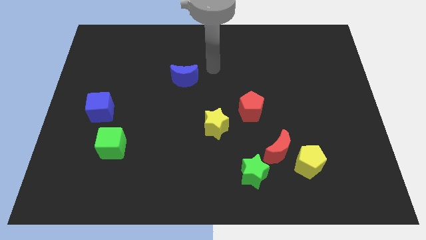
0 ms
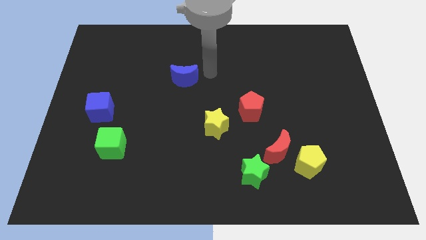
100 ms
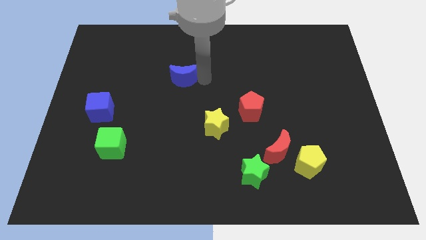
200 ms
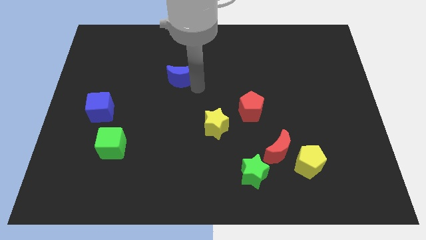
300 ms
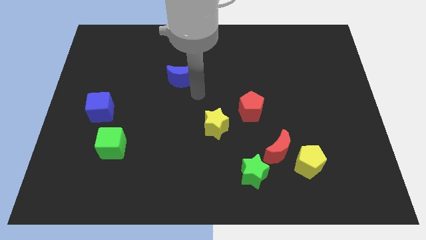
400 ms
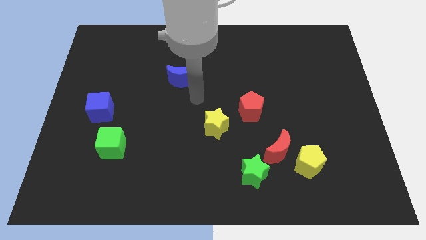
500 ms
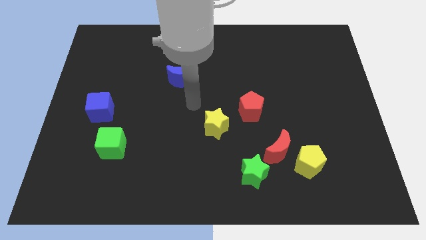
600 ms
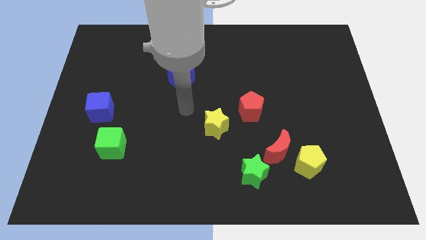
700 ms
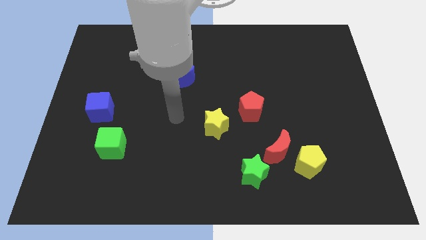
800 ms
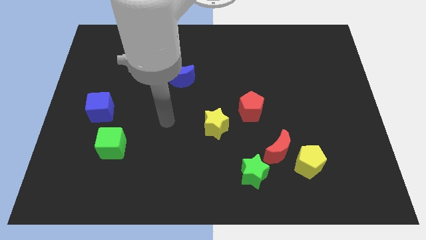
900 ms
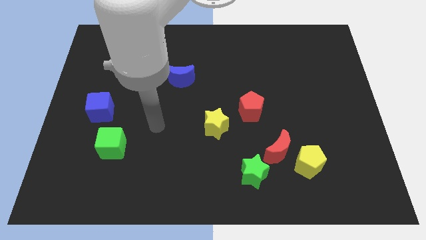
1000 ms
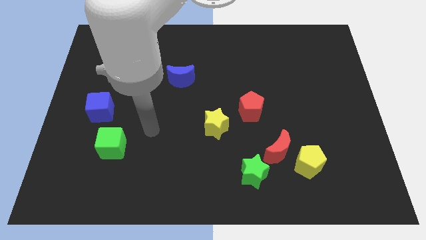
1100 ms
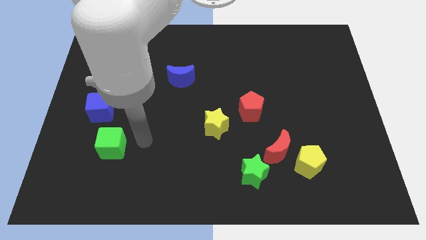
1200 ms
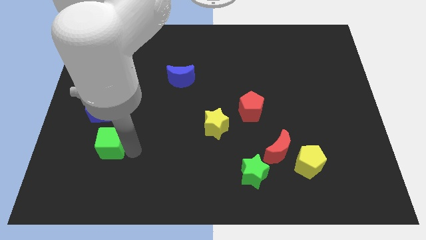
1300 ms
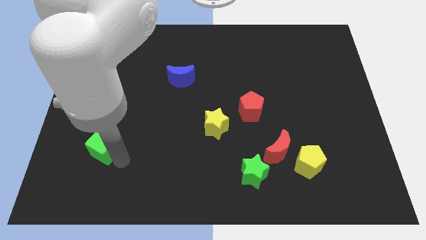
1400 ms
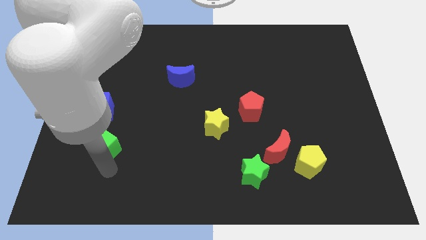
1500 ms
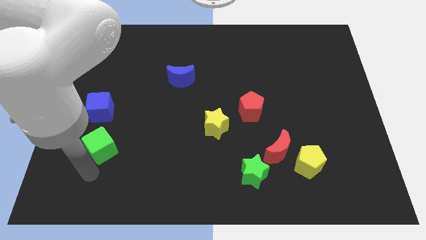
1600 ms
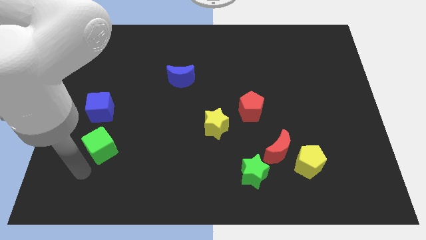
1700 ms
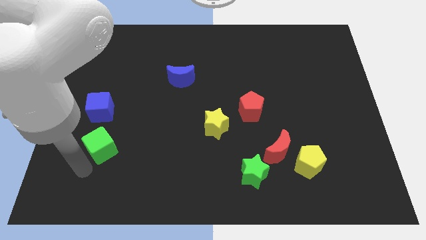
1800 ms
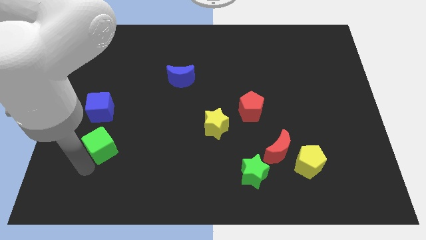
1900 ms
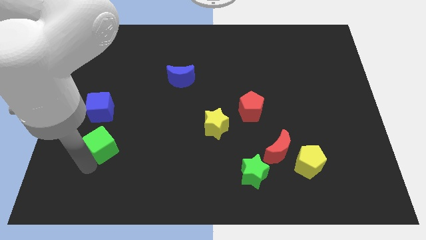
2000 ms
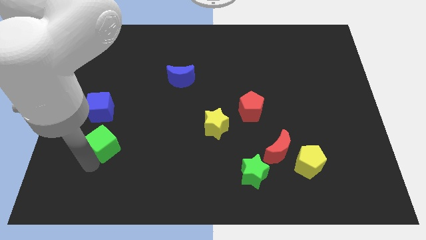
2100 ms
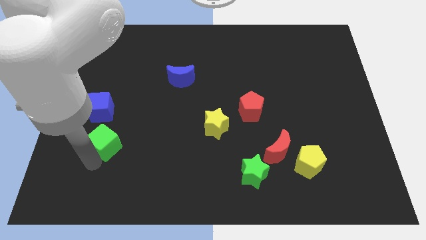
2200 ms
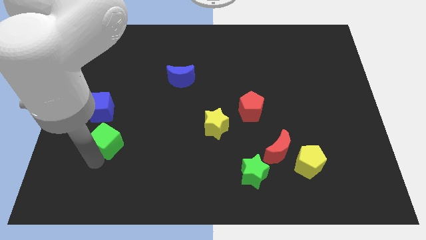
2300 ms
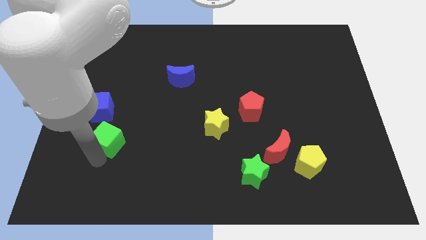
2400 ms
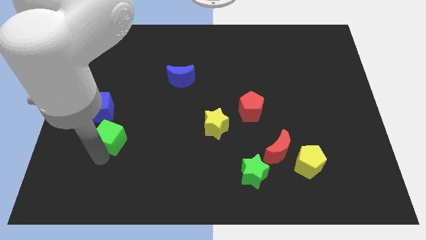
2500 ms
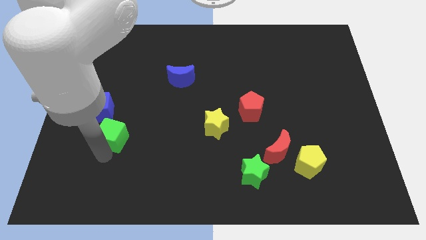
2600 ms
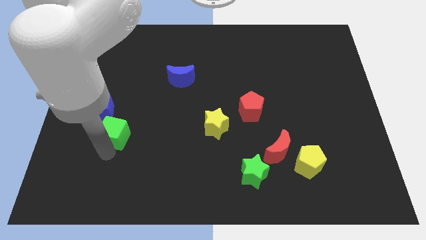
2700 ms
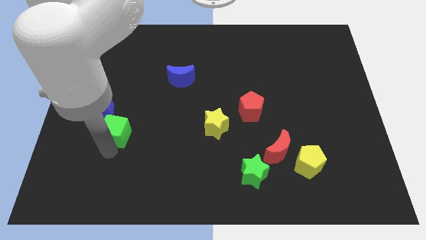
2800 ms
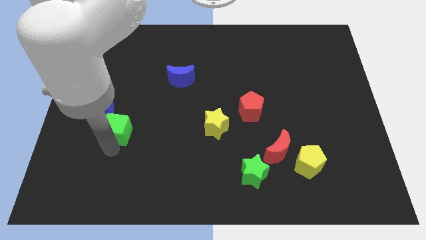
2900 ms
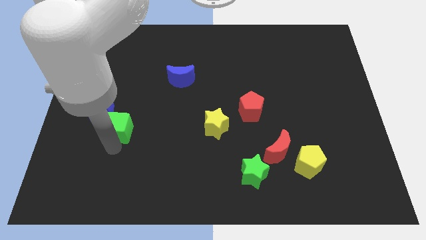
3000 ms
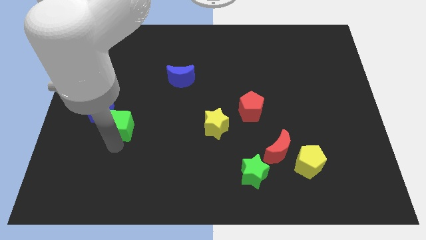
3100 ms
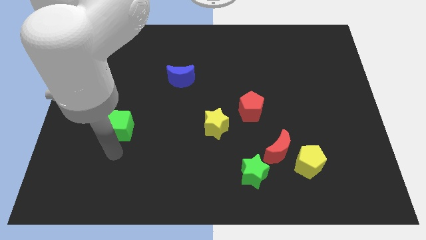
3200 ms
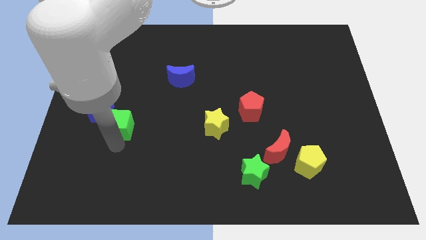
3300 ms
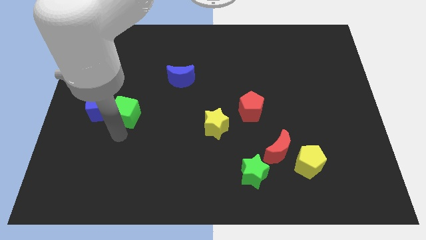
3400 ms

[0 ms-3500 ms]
slightly move the green cube up

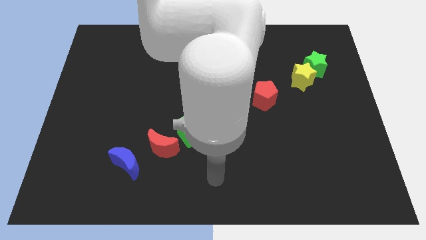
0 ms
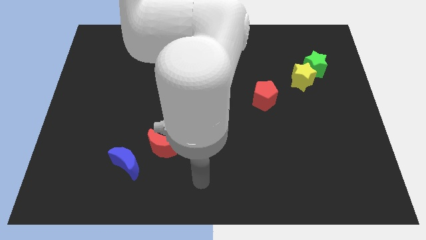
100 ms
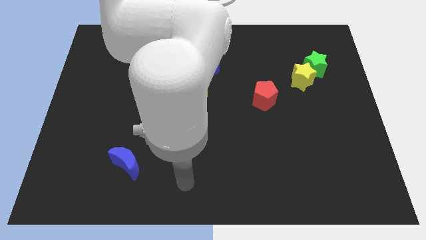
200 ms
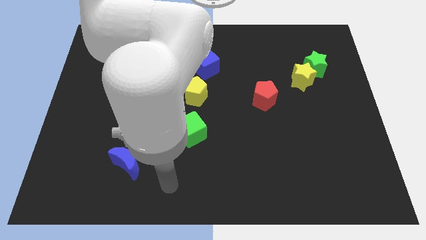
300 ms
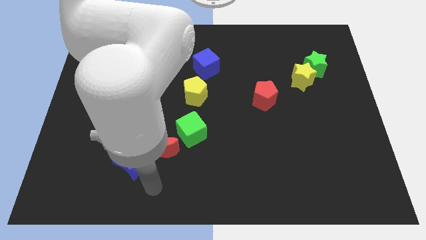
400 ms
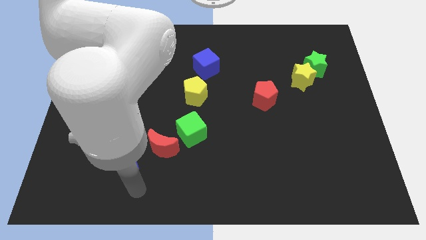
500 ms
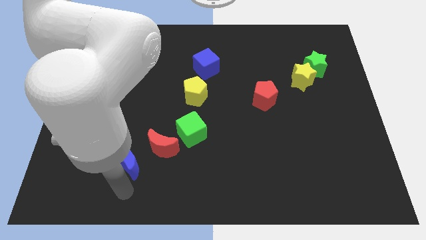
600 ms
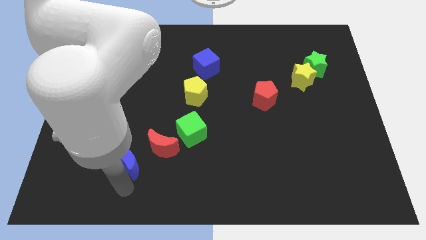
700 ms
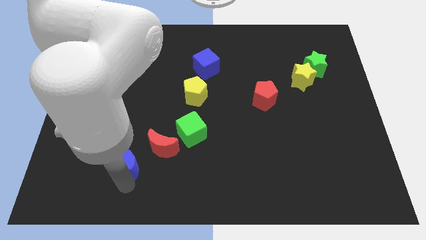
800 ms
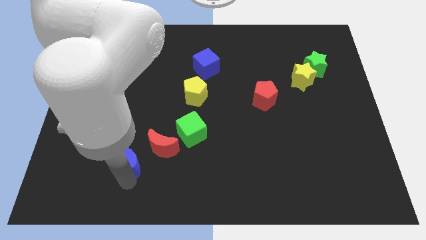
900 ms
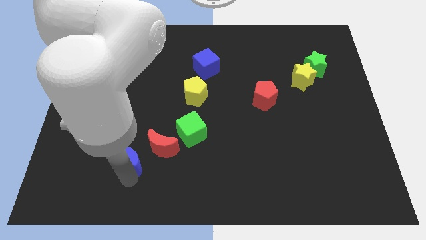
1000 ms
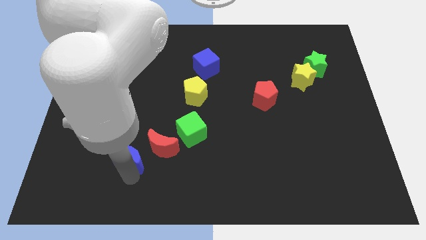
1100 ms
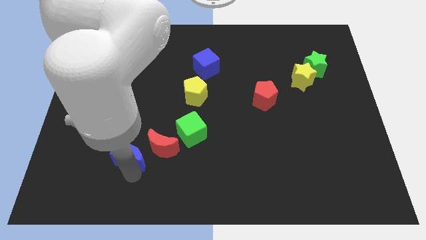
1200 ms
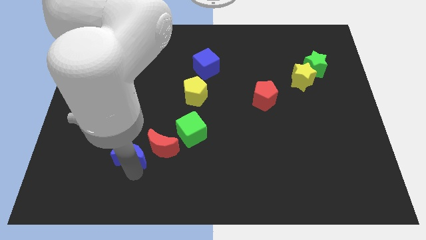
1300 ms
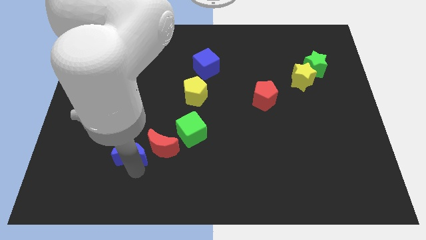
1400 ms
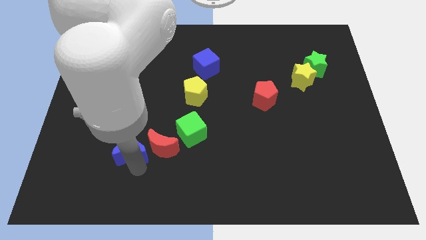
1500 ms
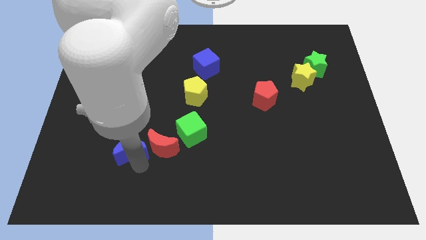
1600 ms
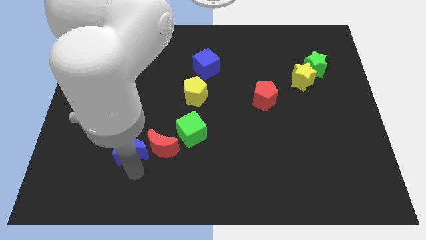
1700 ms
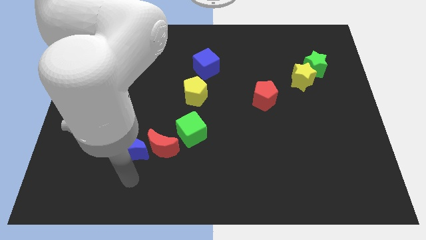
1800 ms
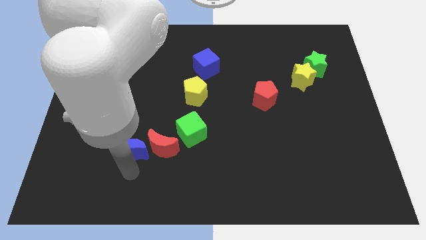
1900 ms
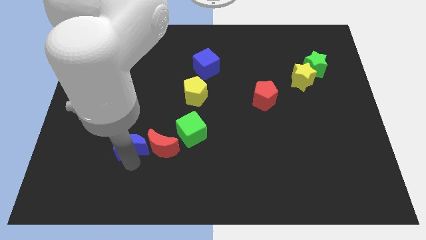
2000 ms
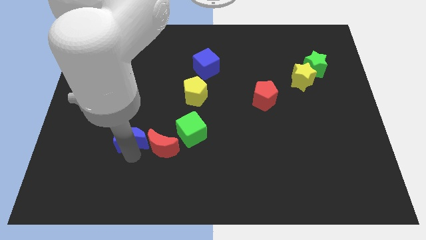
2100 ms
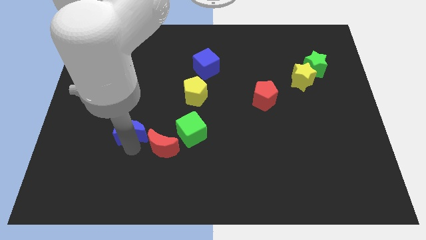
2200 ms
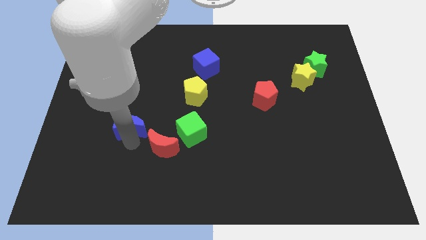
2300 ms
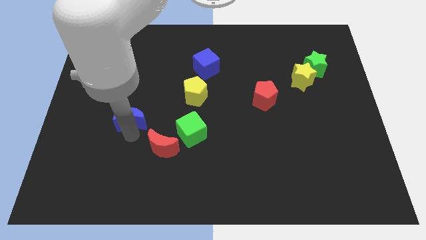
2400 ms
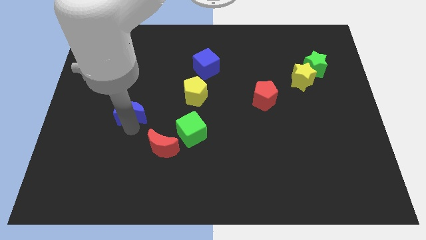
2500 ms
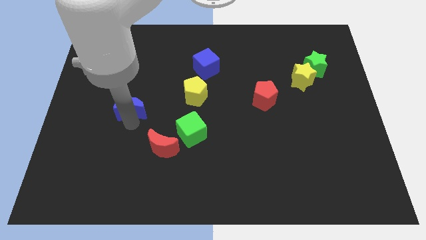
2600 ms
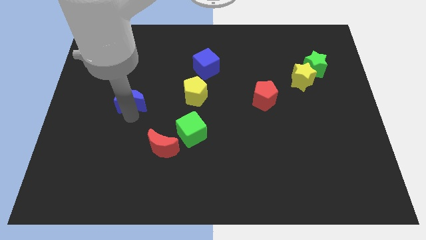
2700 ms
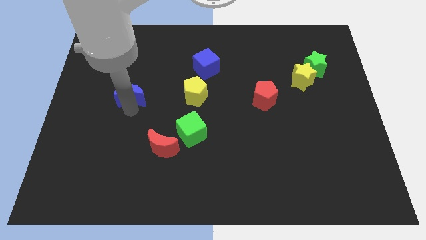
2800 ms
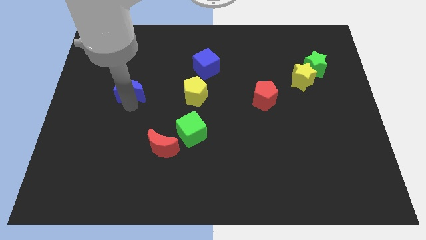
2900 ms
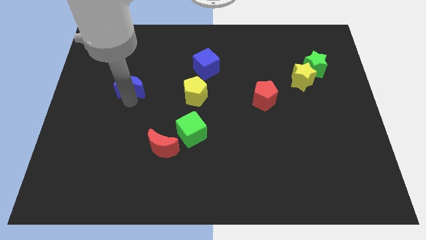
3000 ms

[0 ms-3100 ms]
push the blue moon upwards

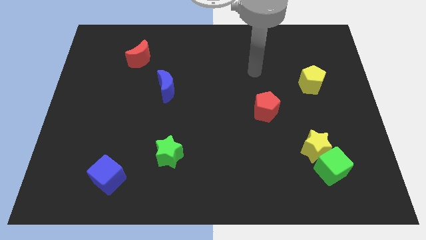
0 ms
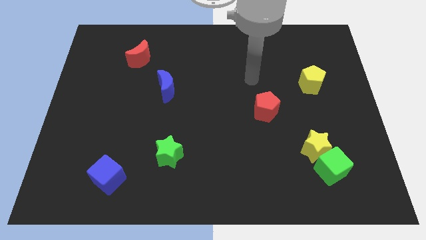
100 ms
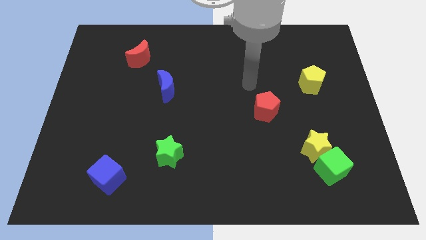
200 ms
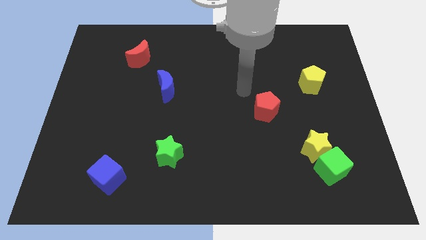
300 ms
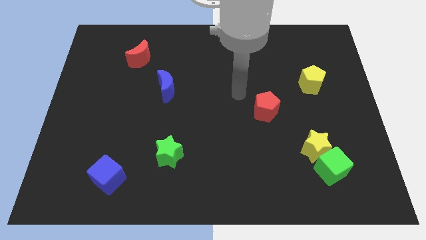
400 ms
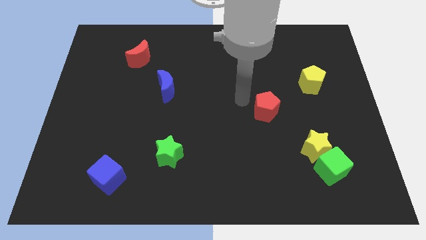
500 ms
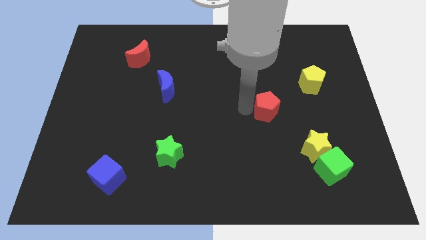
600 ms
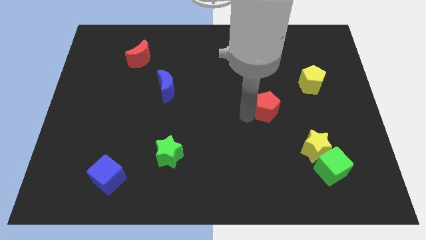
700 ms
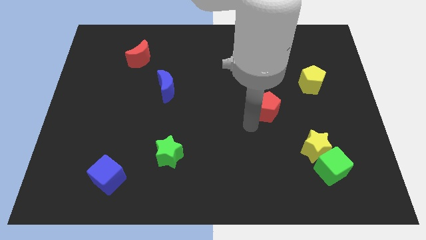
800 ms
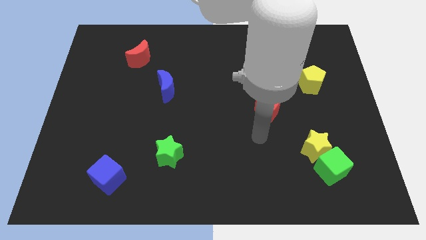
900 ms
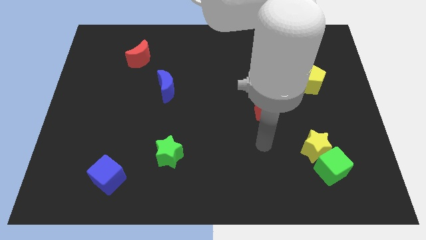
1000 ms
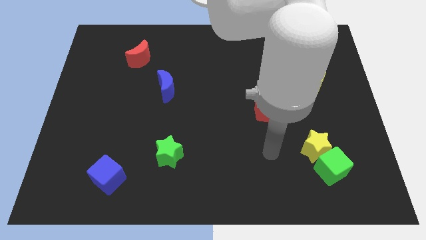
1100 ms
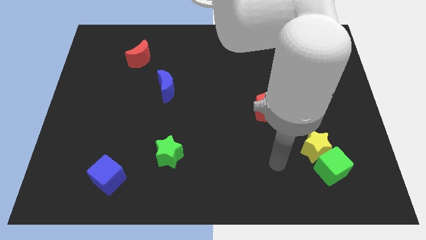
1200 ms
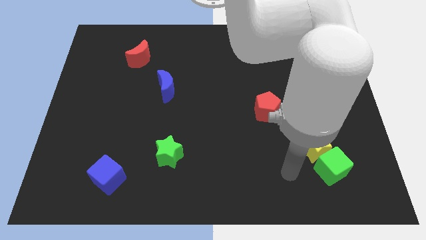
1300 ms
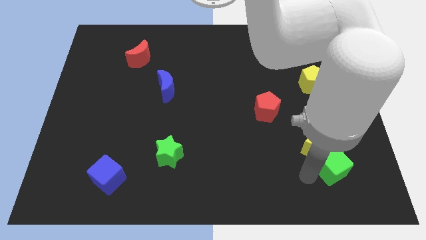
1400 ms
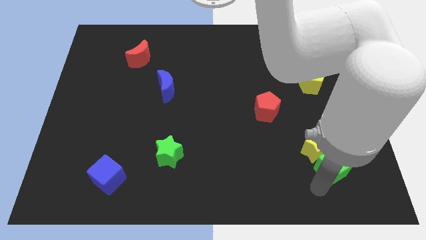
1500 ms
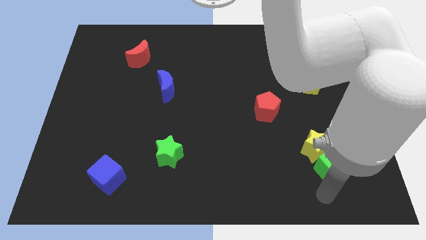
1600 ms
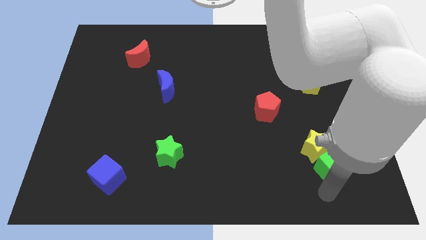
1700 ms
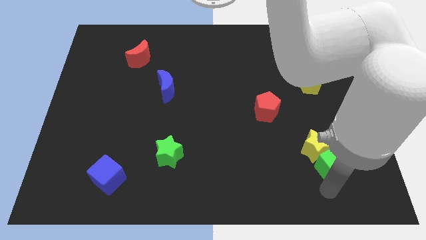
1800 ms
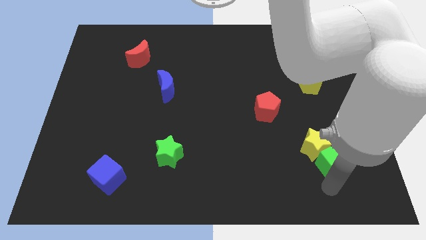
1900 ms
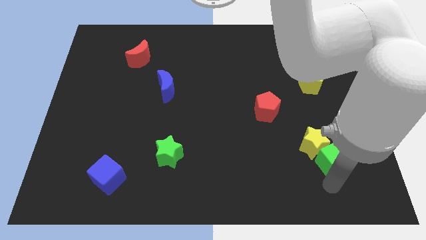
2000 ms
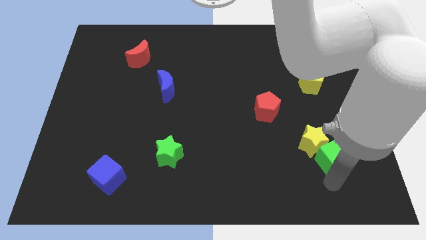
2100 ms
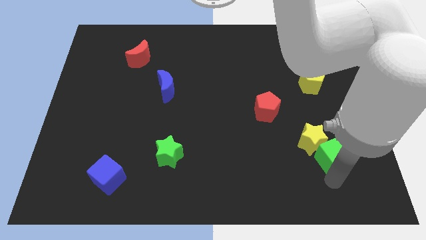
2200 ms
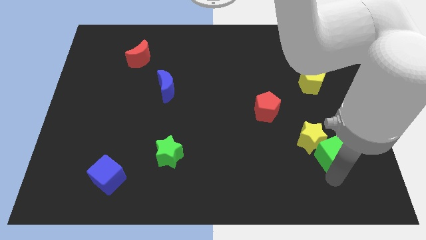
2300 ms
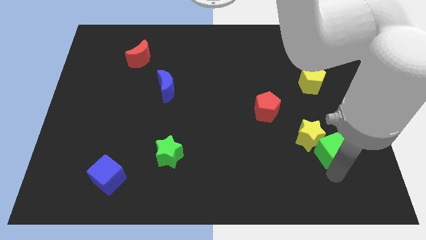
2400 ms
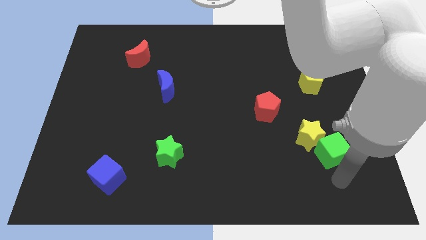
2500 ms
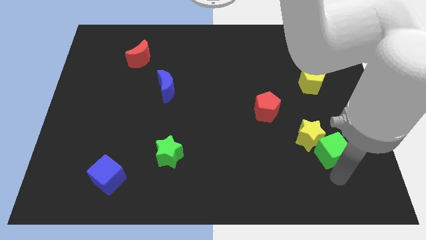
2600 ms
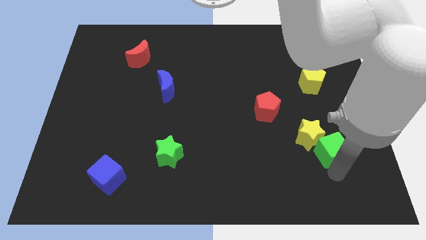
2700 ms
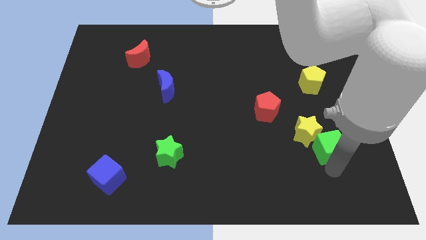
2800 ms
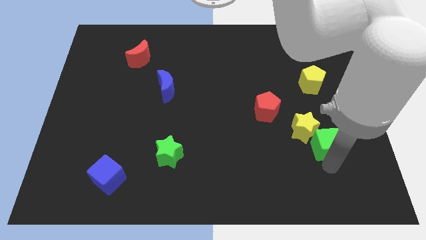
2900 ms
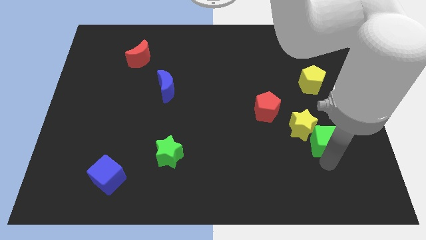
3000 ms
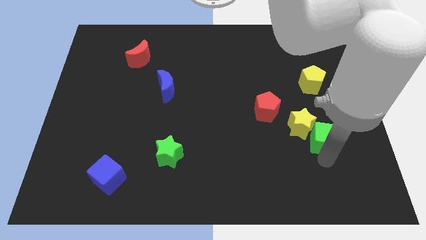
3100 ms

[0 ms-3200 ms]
slightly push the green cube up
